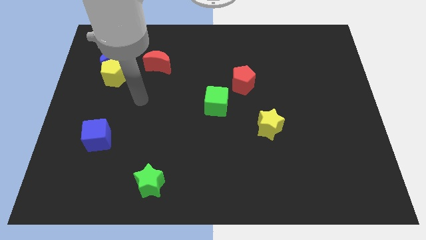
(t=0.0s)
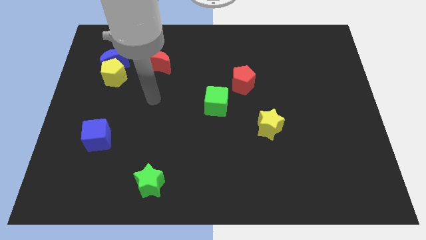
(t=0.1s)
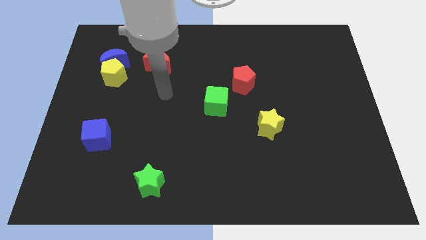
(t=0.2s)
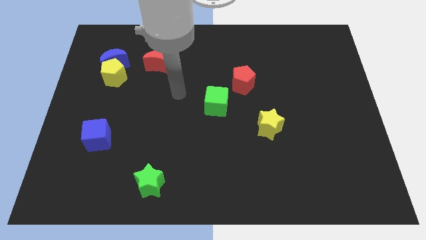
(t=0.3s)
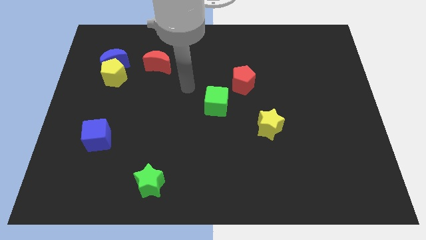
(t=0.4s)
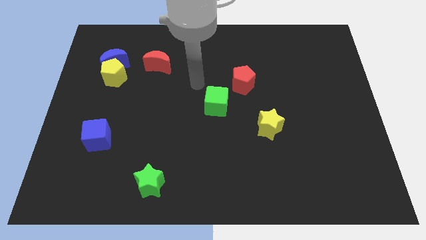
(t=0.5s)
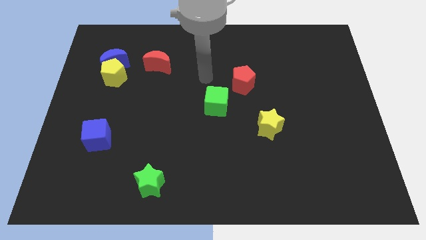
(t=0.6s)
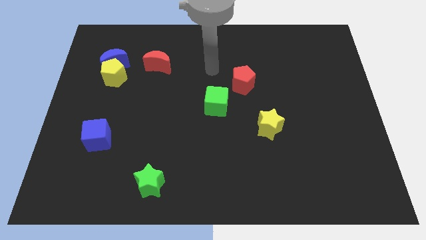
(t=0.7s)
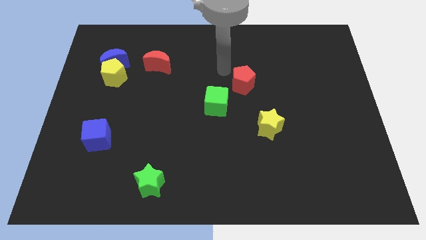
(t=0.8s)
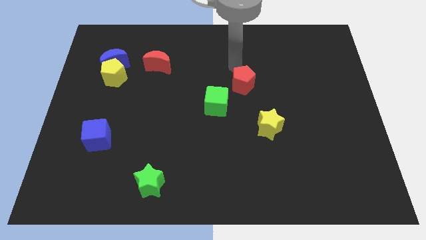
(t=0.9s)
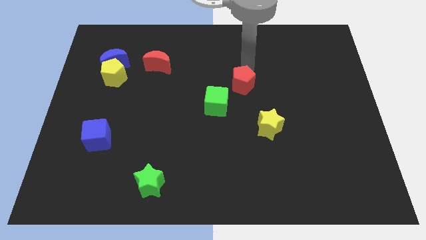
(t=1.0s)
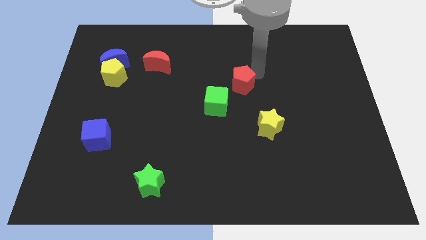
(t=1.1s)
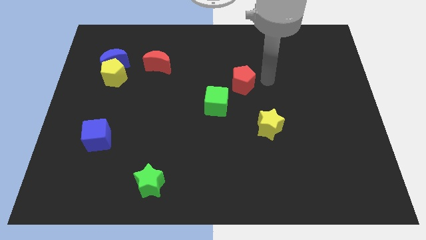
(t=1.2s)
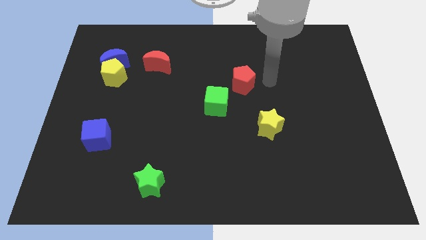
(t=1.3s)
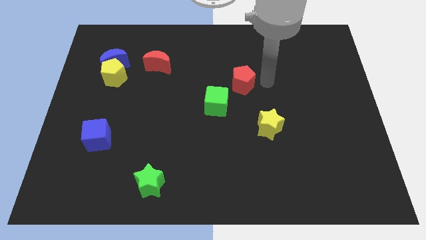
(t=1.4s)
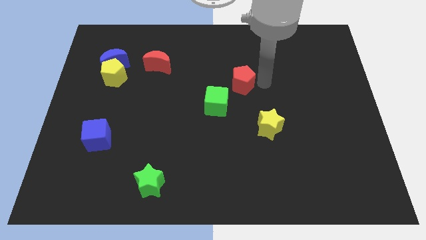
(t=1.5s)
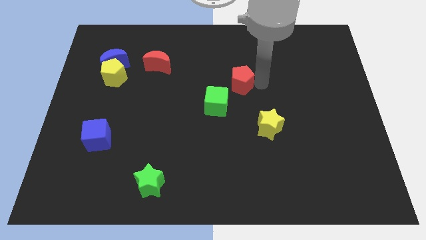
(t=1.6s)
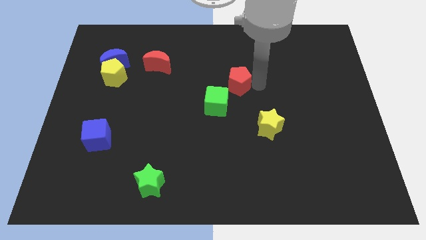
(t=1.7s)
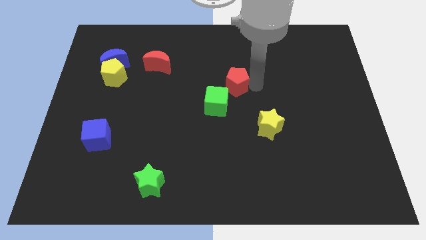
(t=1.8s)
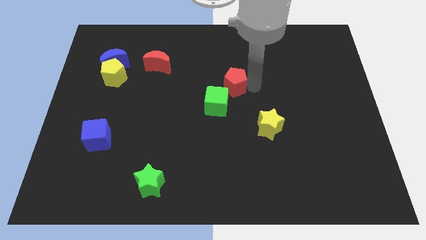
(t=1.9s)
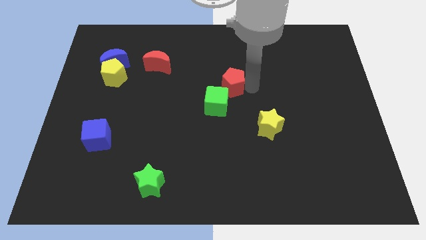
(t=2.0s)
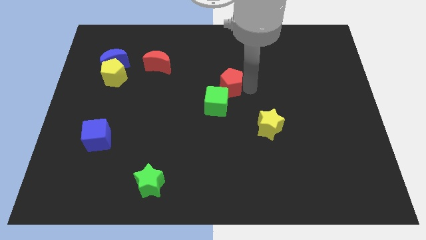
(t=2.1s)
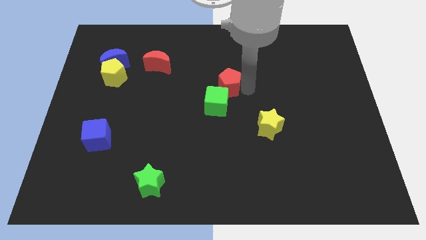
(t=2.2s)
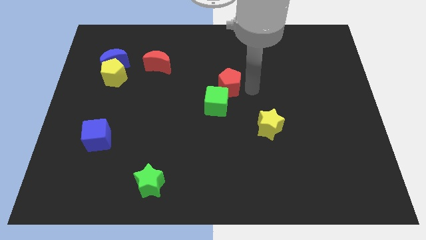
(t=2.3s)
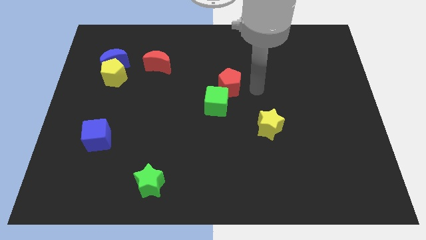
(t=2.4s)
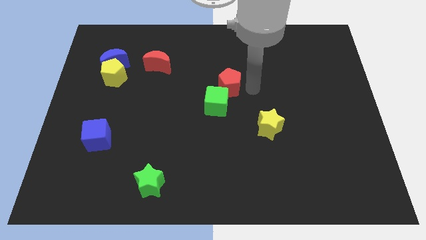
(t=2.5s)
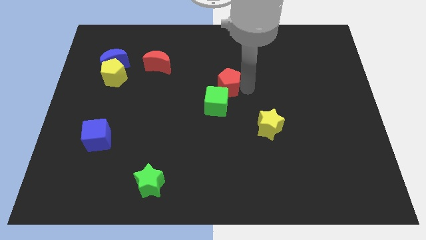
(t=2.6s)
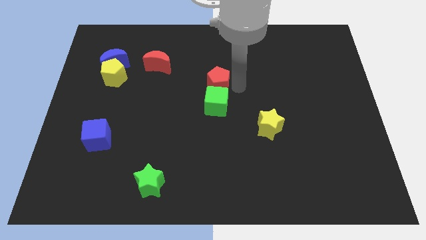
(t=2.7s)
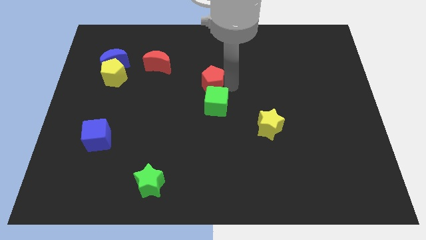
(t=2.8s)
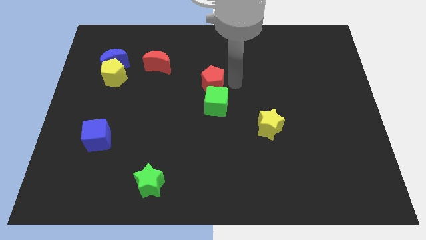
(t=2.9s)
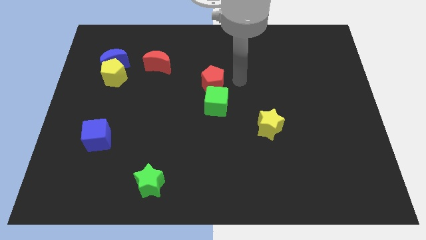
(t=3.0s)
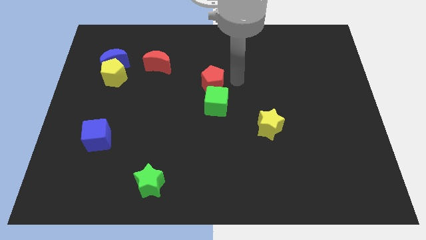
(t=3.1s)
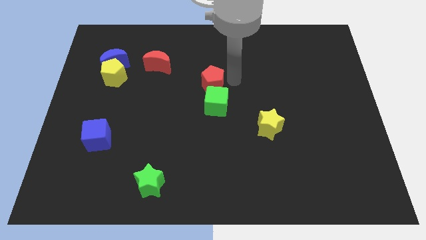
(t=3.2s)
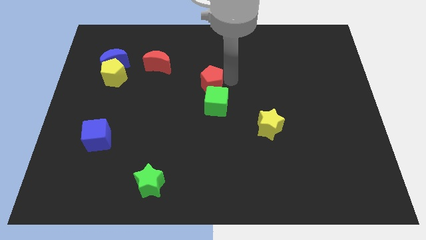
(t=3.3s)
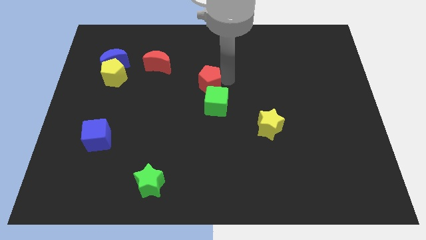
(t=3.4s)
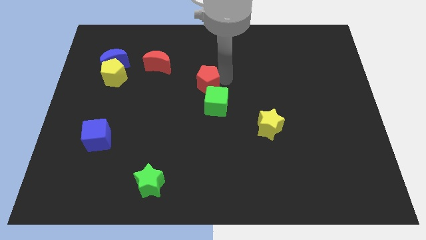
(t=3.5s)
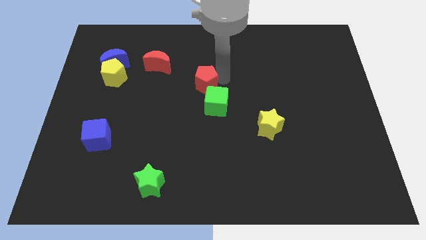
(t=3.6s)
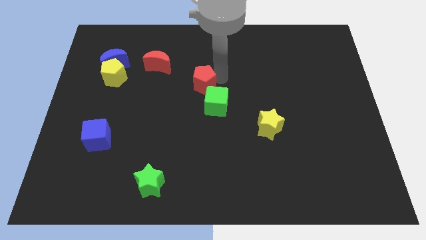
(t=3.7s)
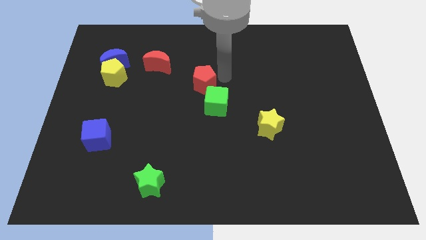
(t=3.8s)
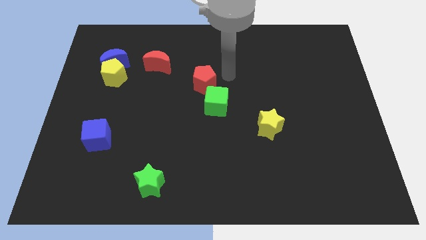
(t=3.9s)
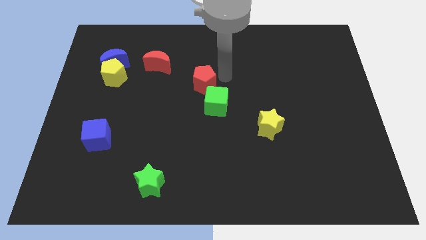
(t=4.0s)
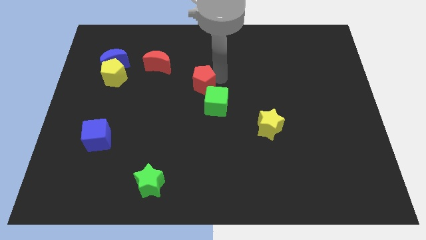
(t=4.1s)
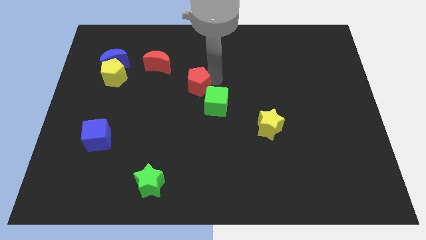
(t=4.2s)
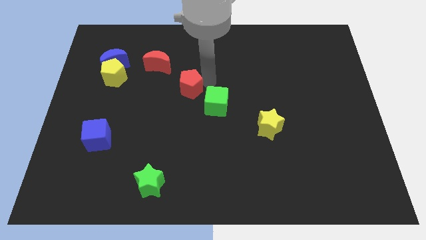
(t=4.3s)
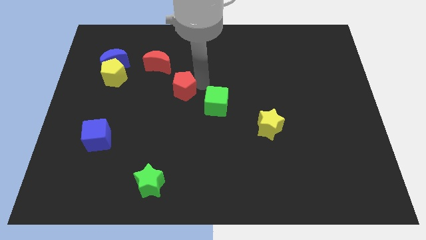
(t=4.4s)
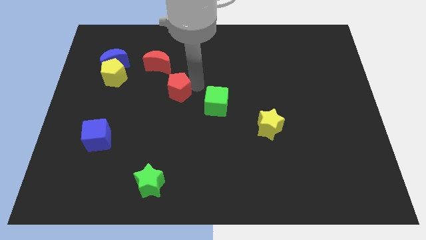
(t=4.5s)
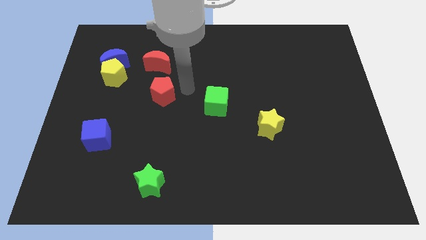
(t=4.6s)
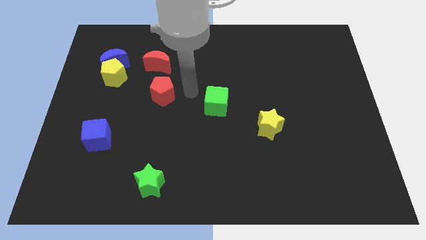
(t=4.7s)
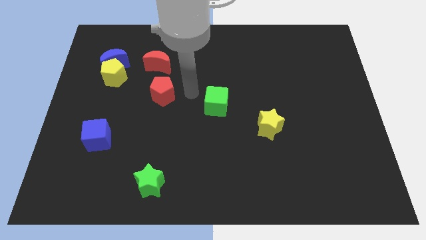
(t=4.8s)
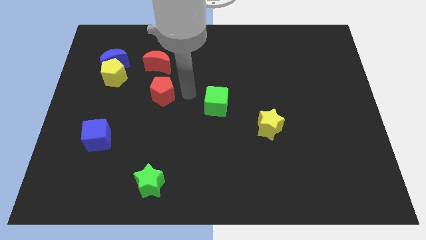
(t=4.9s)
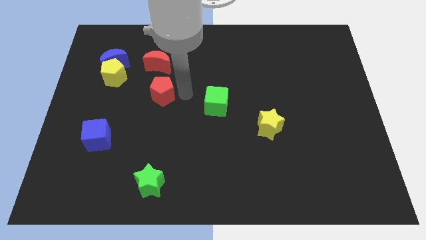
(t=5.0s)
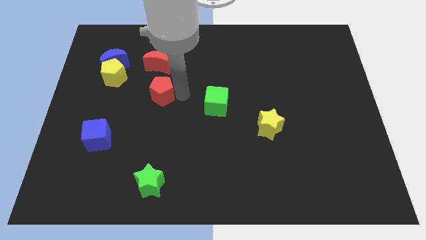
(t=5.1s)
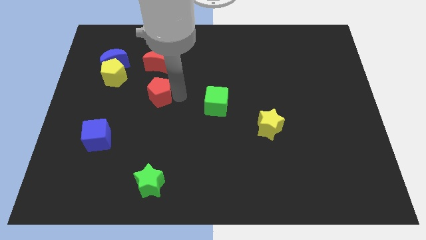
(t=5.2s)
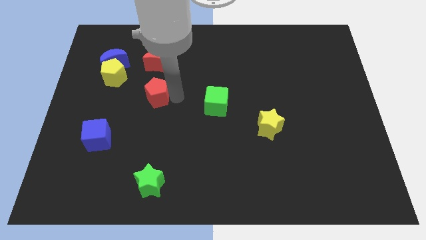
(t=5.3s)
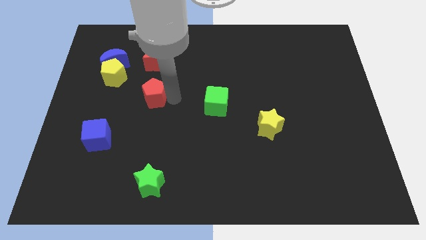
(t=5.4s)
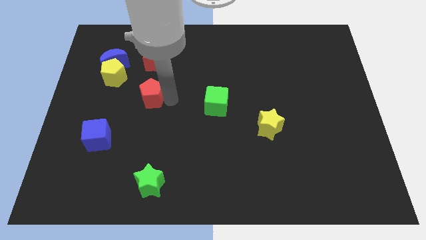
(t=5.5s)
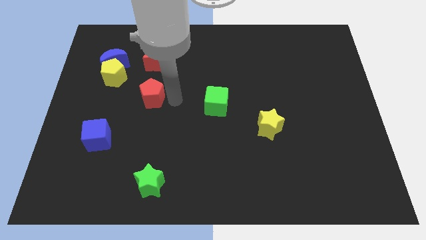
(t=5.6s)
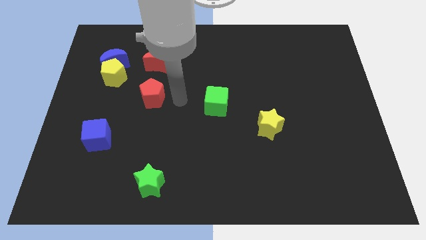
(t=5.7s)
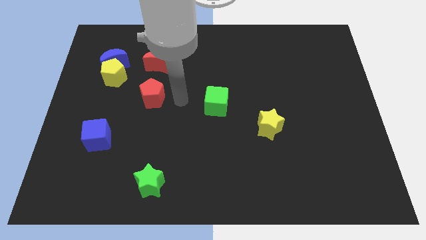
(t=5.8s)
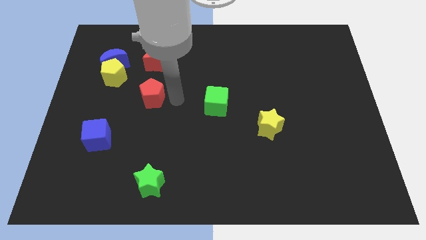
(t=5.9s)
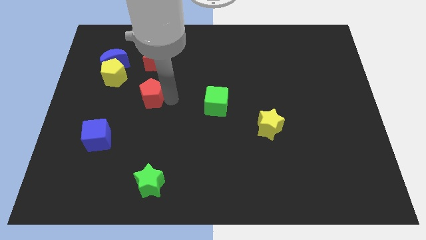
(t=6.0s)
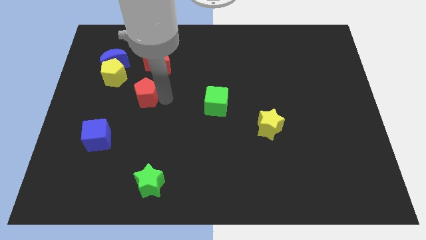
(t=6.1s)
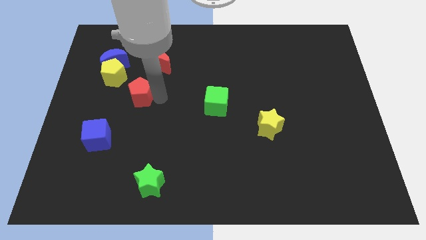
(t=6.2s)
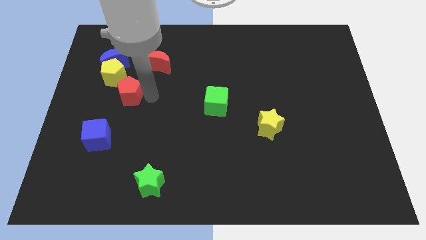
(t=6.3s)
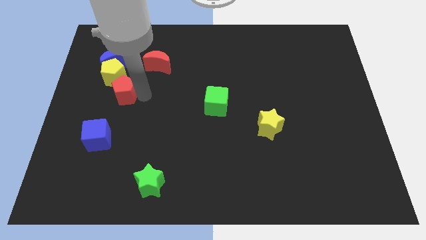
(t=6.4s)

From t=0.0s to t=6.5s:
push the red pentagon below the blue moon
